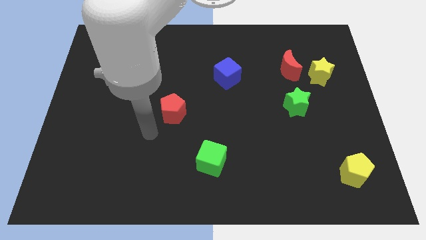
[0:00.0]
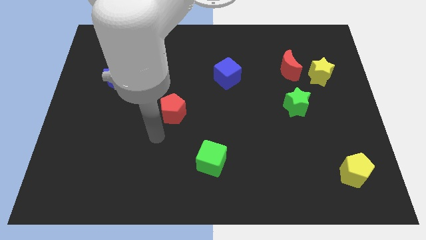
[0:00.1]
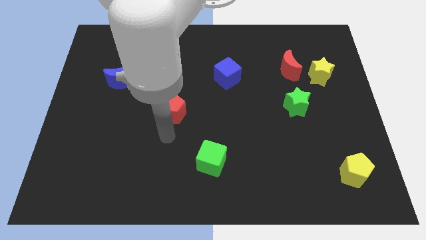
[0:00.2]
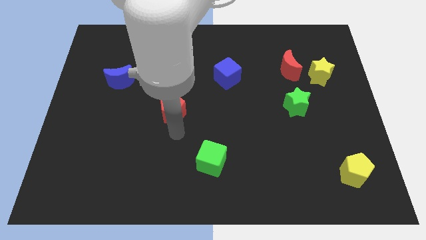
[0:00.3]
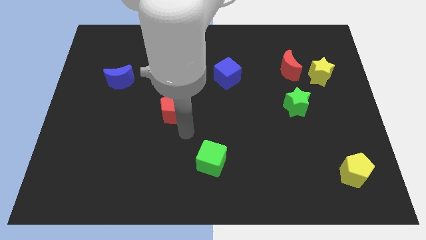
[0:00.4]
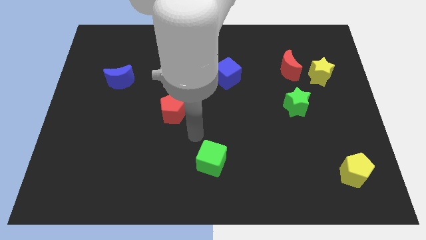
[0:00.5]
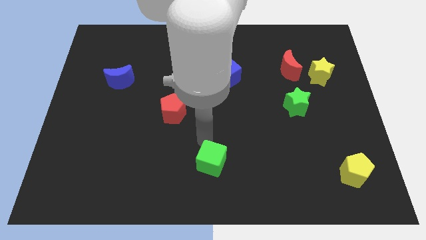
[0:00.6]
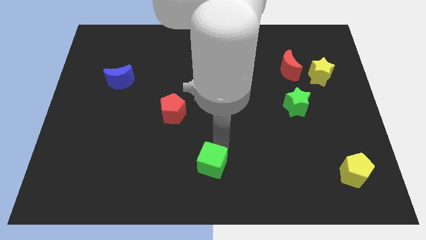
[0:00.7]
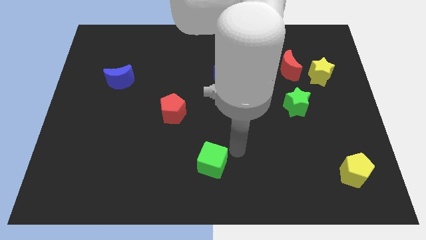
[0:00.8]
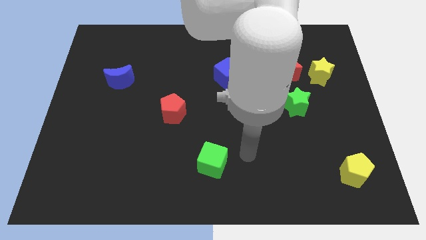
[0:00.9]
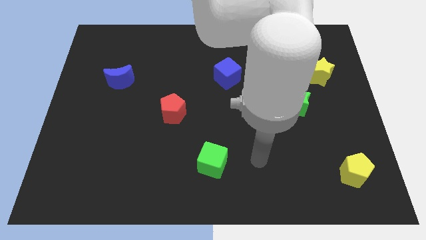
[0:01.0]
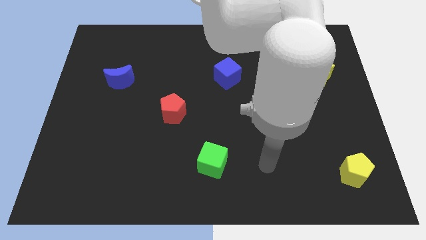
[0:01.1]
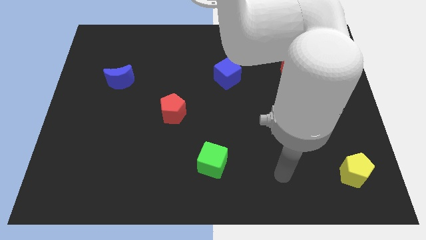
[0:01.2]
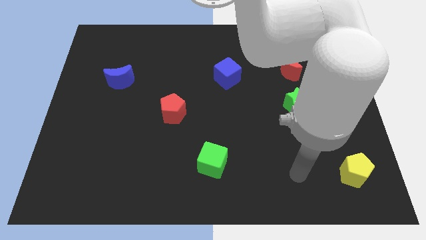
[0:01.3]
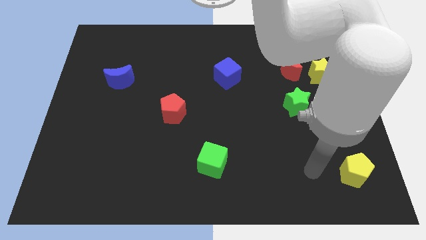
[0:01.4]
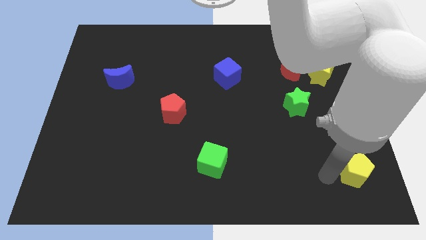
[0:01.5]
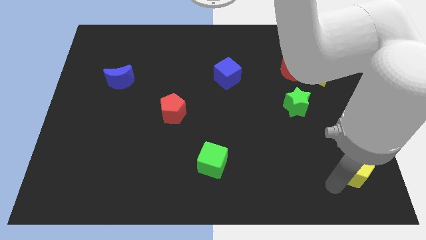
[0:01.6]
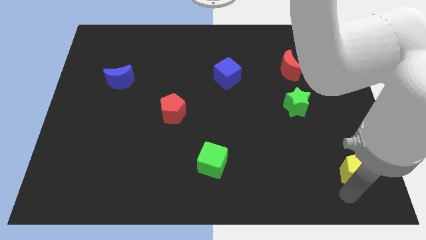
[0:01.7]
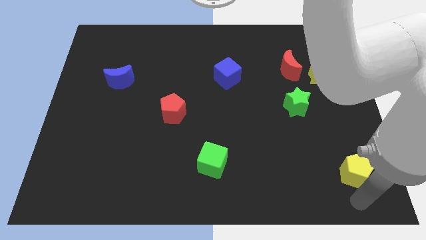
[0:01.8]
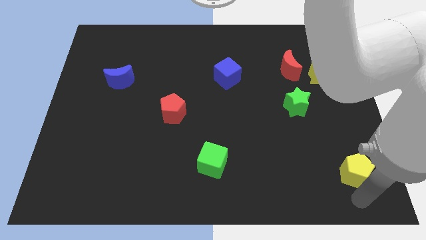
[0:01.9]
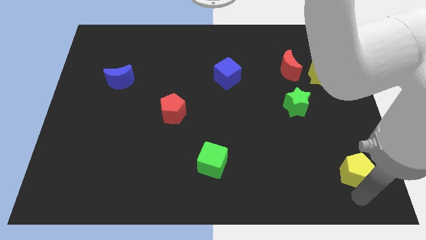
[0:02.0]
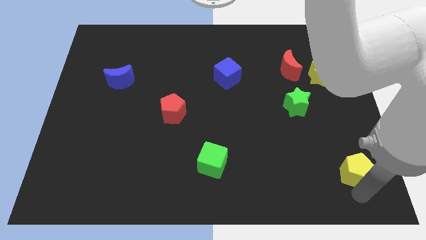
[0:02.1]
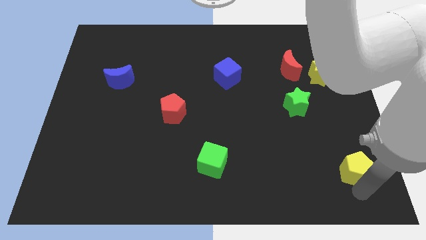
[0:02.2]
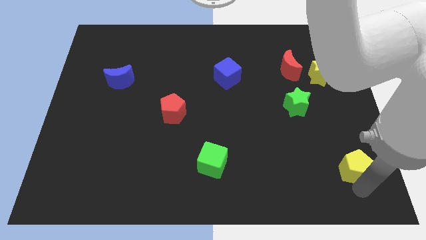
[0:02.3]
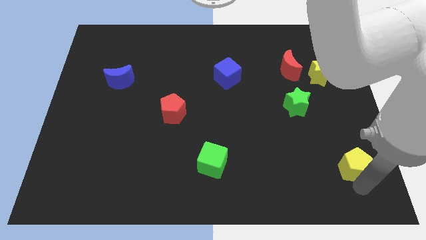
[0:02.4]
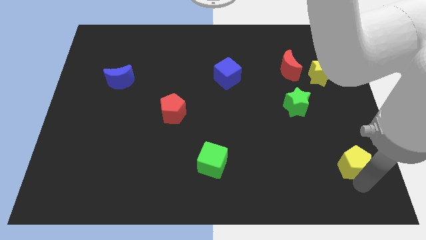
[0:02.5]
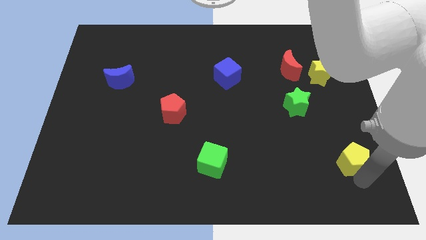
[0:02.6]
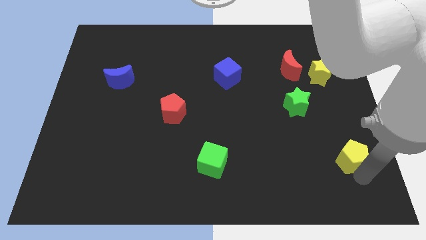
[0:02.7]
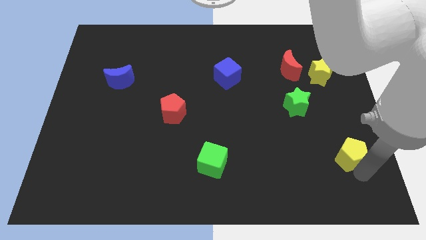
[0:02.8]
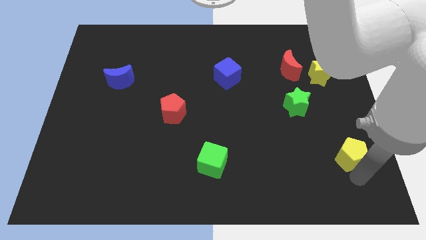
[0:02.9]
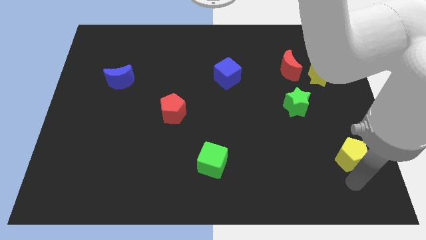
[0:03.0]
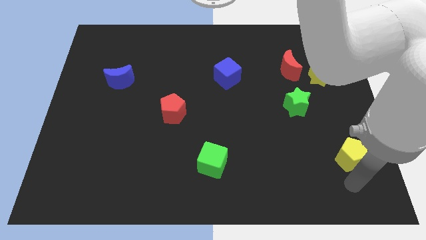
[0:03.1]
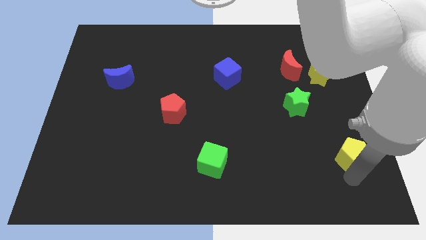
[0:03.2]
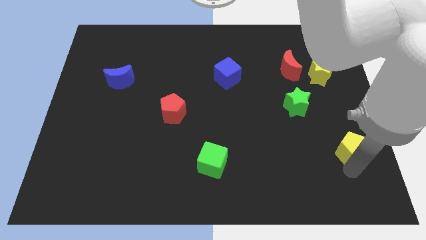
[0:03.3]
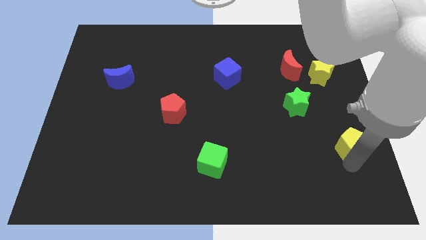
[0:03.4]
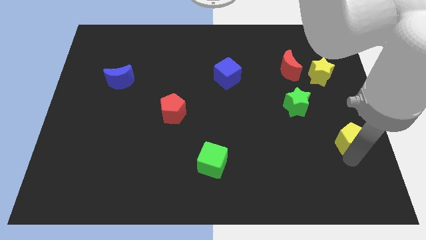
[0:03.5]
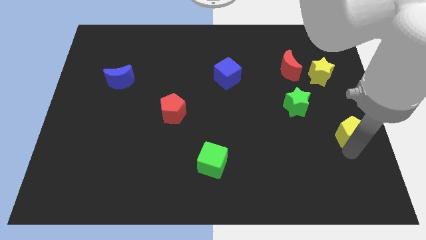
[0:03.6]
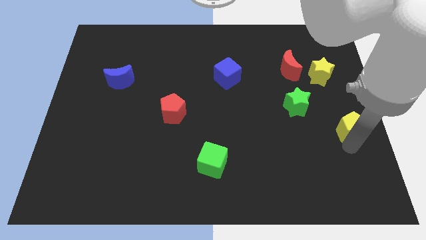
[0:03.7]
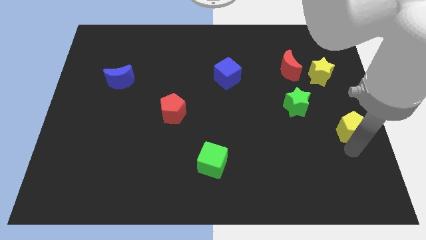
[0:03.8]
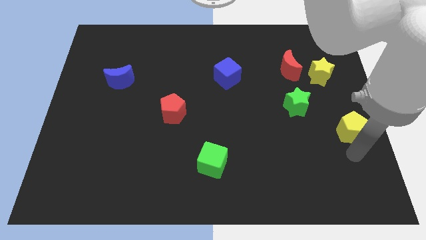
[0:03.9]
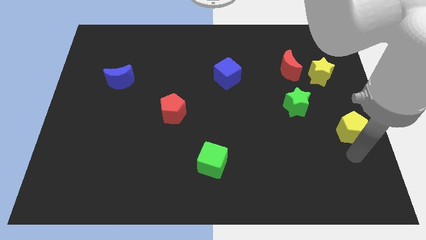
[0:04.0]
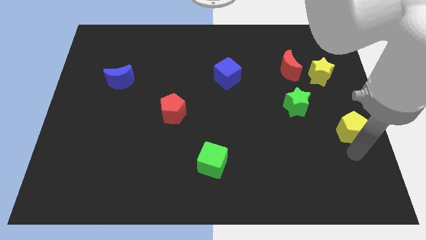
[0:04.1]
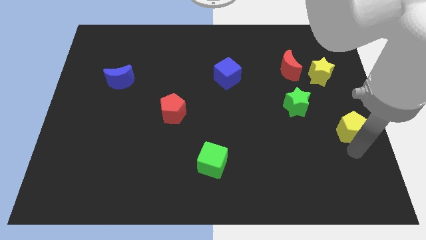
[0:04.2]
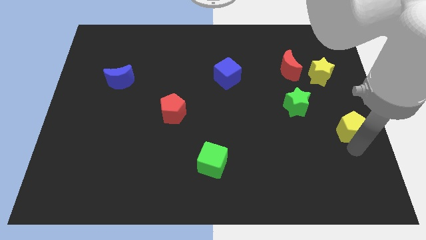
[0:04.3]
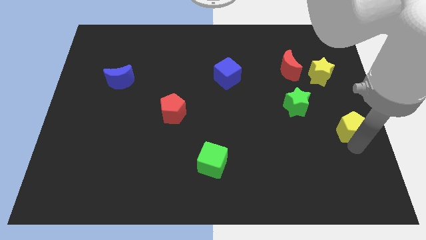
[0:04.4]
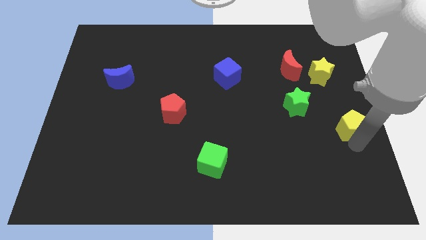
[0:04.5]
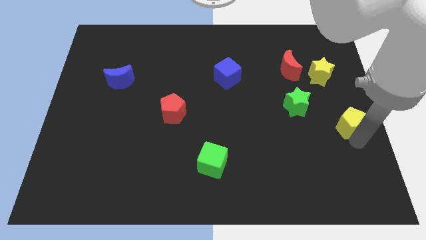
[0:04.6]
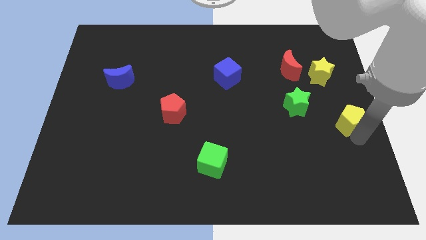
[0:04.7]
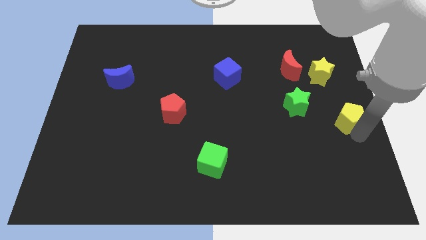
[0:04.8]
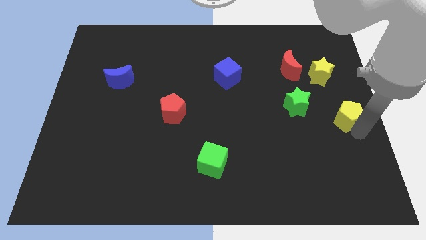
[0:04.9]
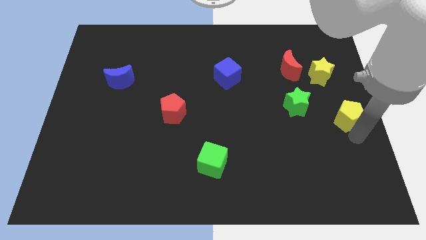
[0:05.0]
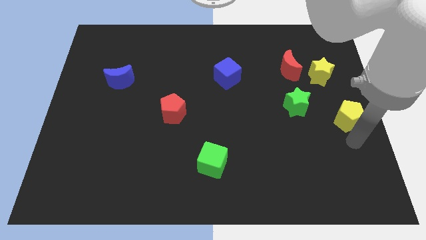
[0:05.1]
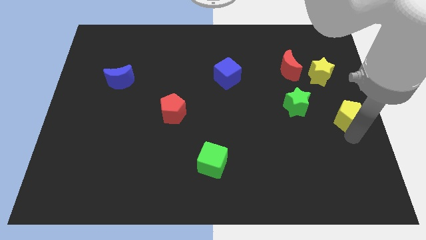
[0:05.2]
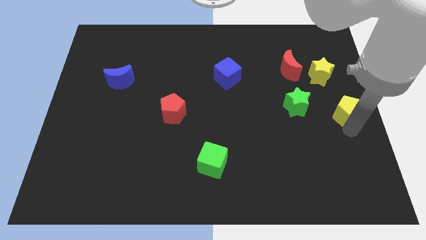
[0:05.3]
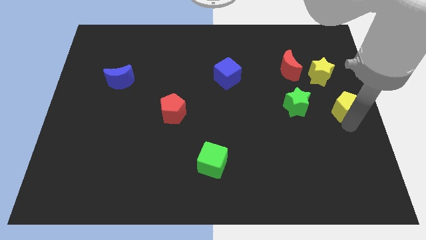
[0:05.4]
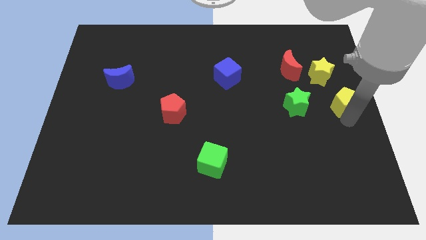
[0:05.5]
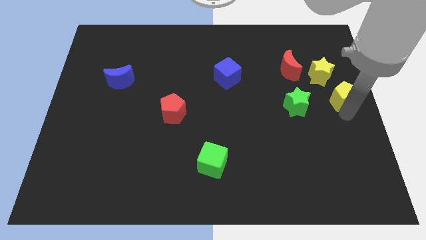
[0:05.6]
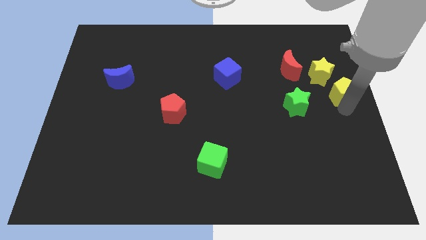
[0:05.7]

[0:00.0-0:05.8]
move the yellow pentagon upwards

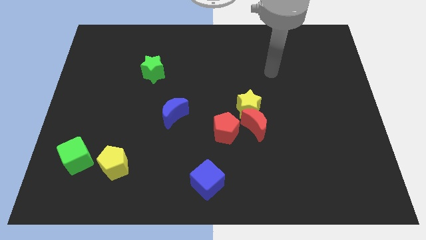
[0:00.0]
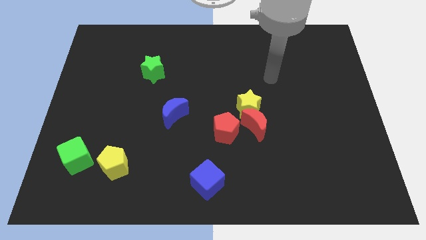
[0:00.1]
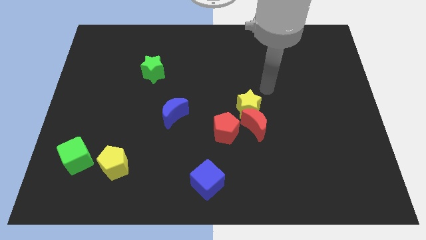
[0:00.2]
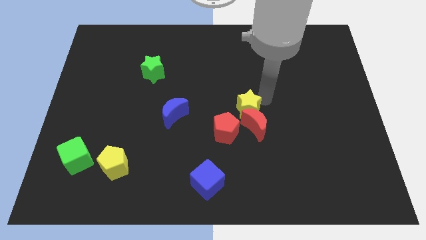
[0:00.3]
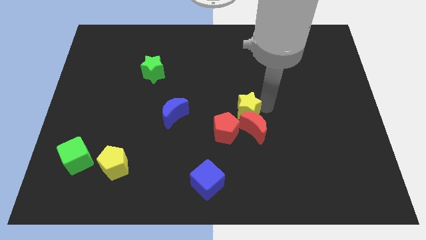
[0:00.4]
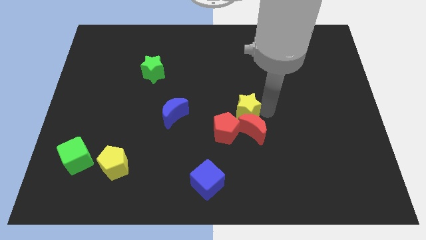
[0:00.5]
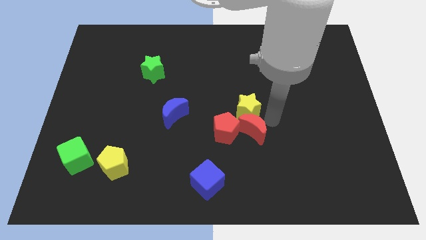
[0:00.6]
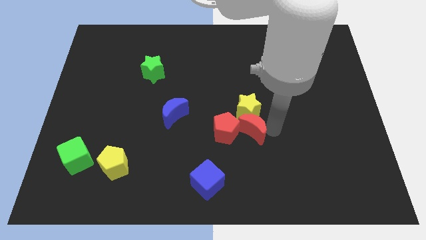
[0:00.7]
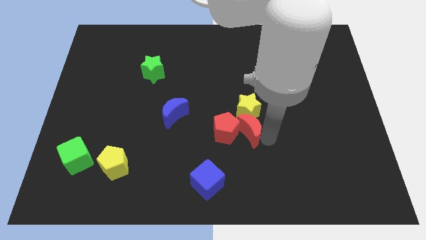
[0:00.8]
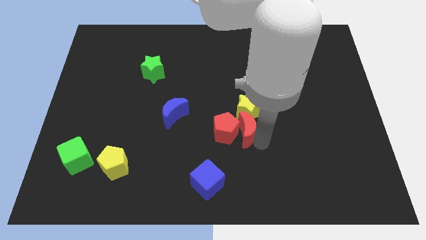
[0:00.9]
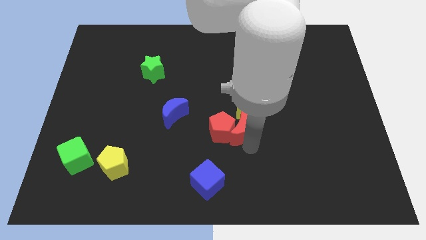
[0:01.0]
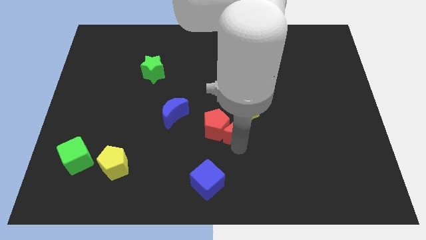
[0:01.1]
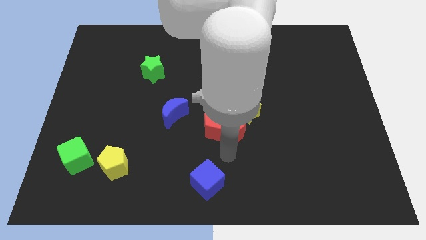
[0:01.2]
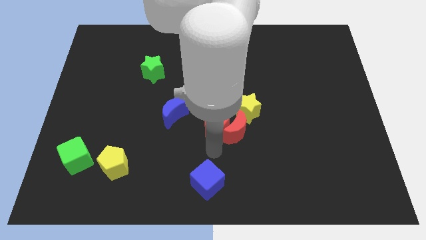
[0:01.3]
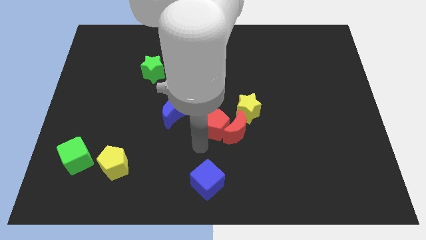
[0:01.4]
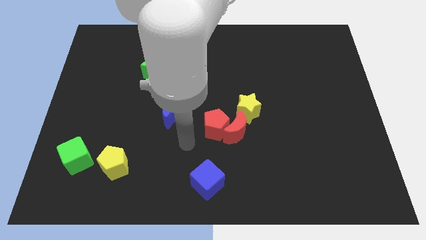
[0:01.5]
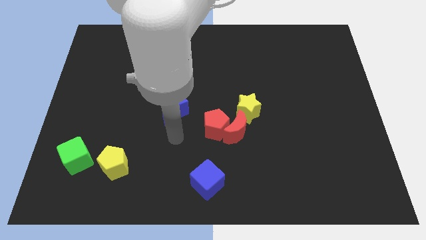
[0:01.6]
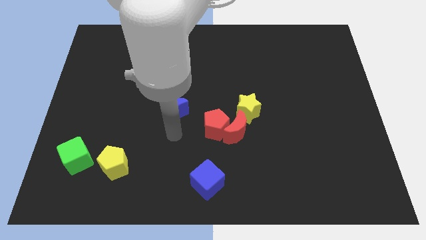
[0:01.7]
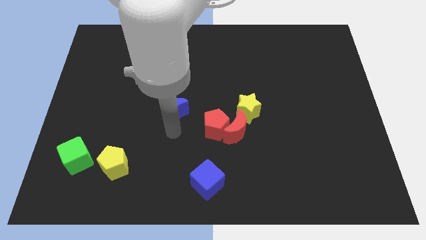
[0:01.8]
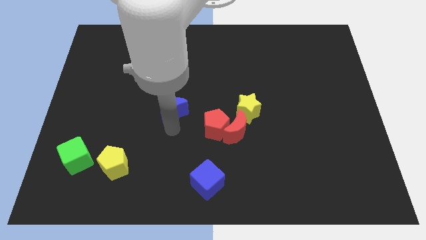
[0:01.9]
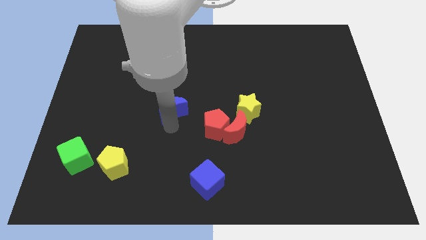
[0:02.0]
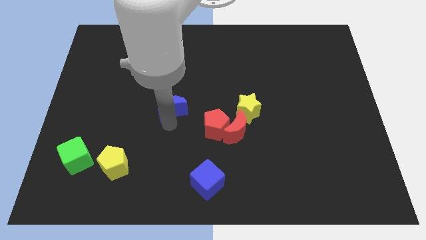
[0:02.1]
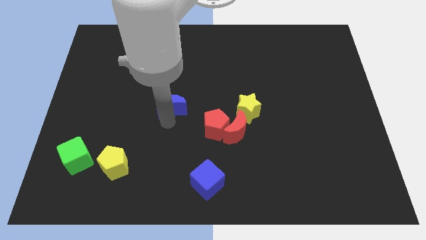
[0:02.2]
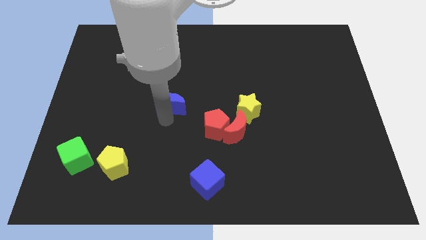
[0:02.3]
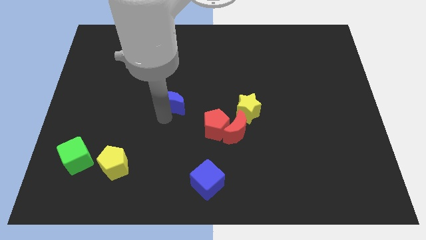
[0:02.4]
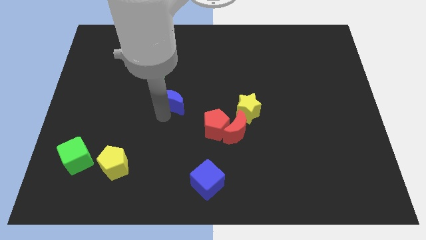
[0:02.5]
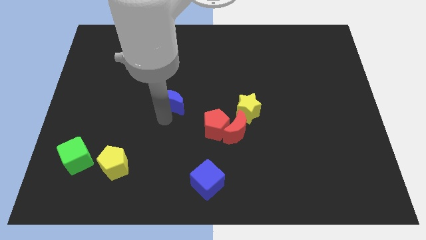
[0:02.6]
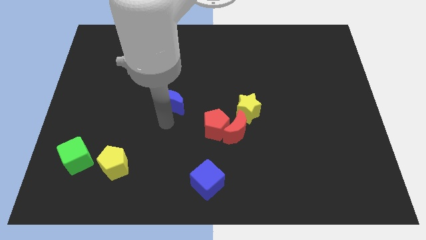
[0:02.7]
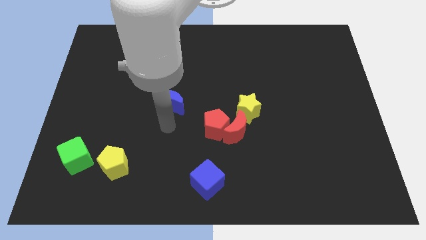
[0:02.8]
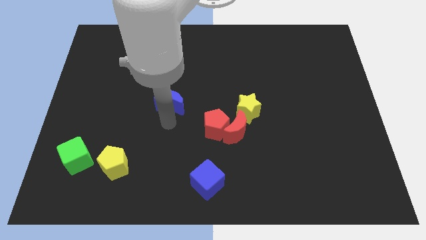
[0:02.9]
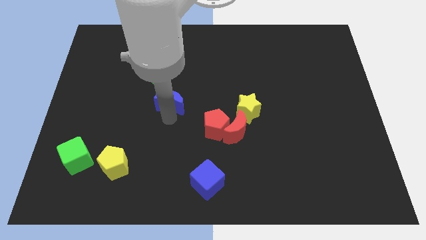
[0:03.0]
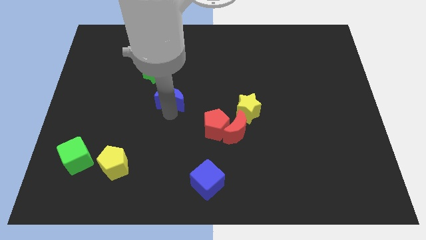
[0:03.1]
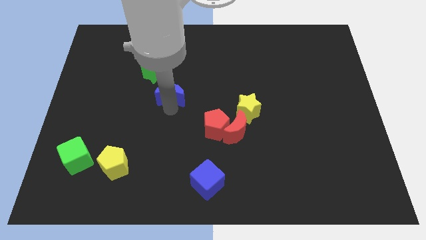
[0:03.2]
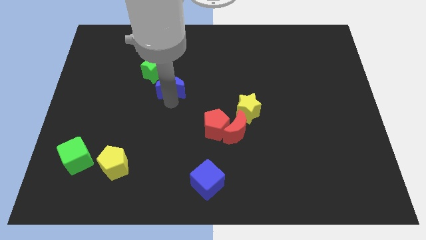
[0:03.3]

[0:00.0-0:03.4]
slide the blue moon a little up
